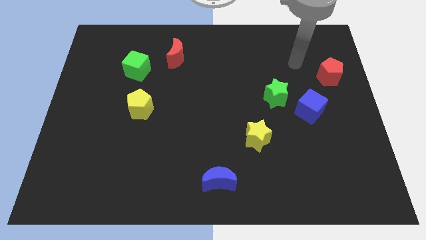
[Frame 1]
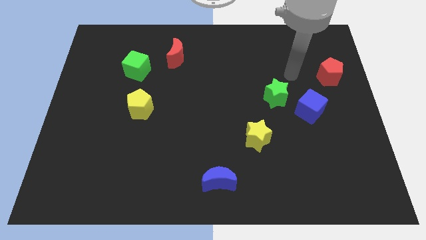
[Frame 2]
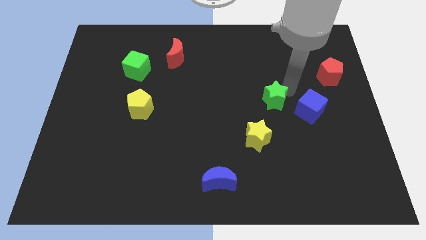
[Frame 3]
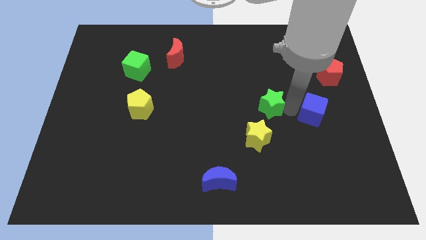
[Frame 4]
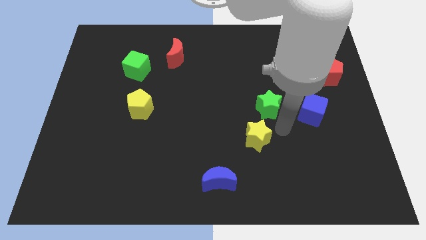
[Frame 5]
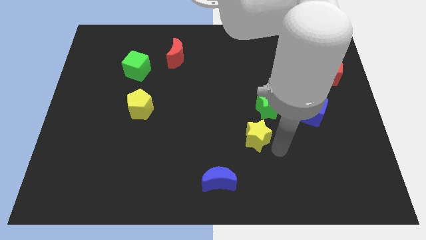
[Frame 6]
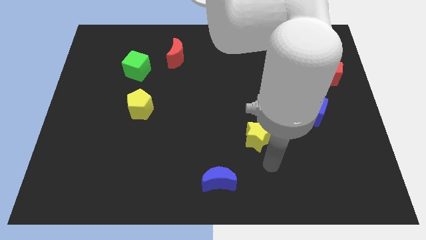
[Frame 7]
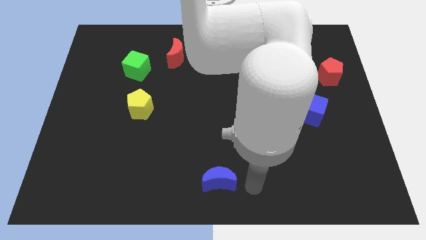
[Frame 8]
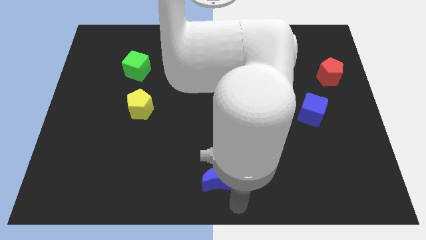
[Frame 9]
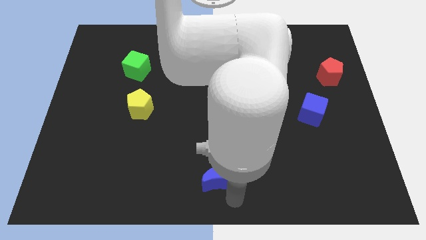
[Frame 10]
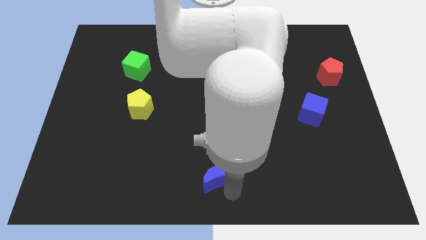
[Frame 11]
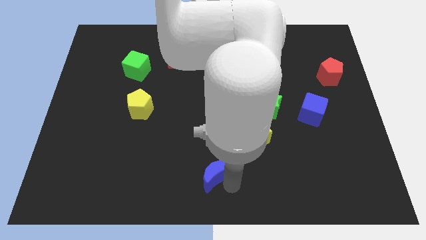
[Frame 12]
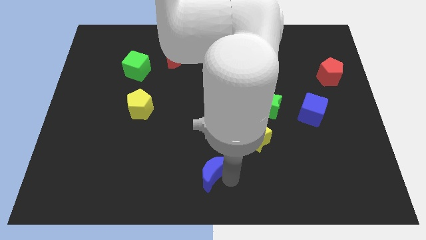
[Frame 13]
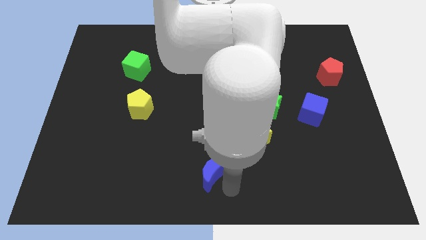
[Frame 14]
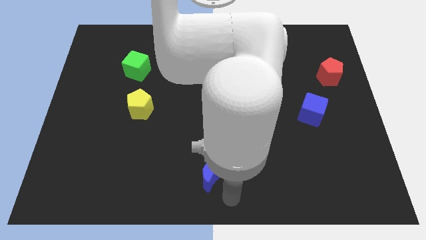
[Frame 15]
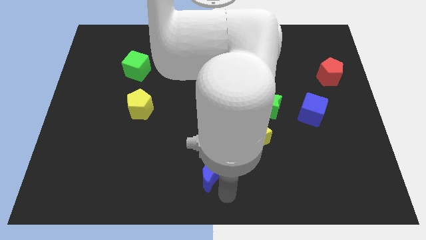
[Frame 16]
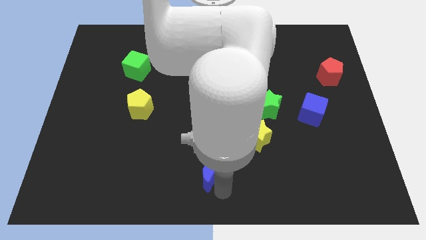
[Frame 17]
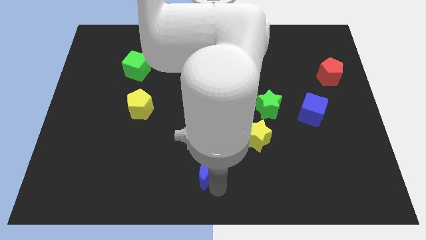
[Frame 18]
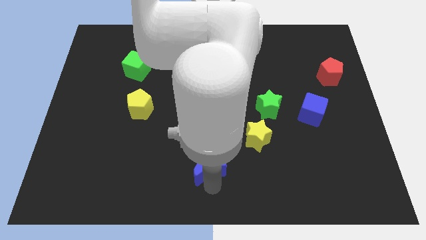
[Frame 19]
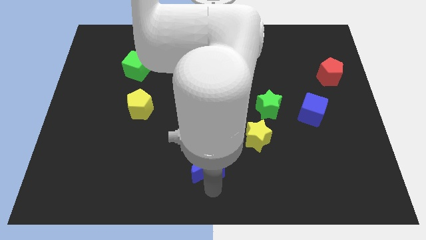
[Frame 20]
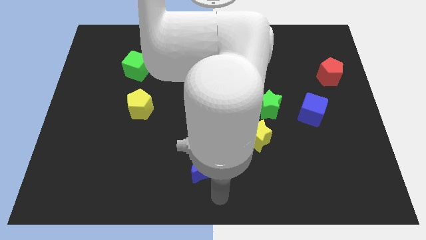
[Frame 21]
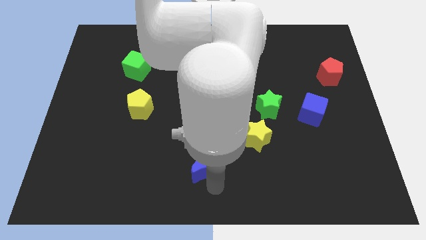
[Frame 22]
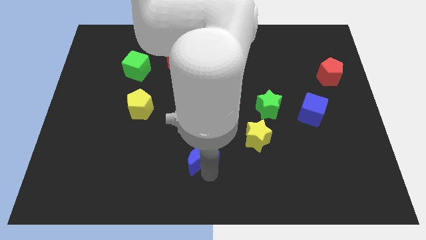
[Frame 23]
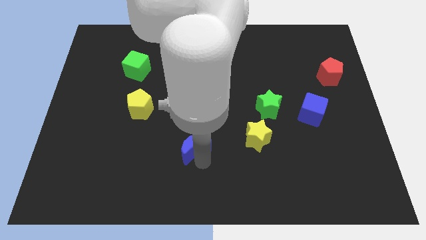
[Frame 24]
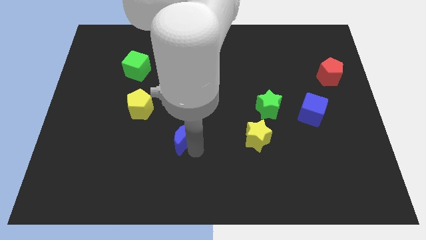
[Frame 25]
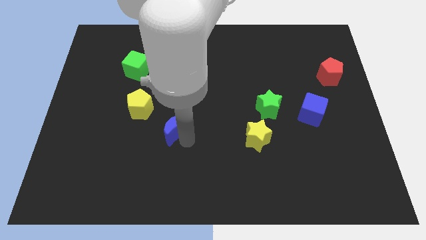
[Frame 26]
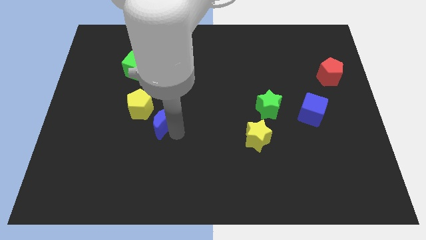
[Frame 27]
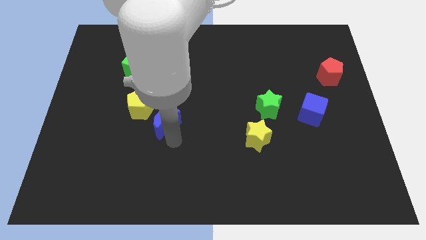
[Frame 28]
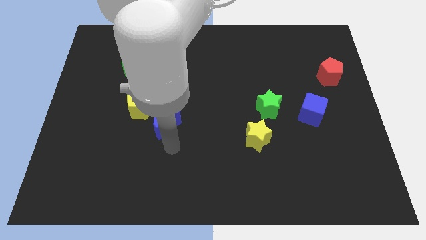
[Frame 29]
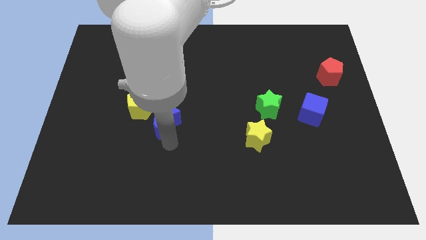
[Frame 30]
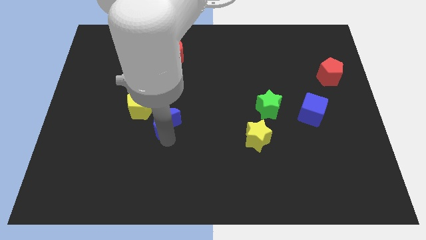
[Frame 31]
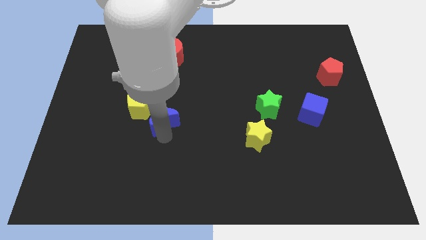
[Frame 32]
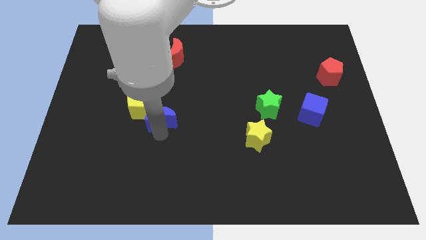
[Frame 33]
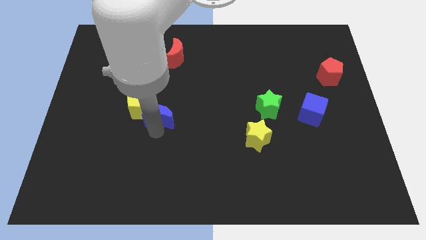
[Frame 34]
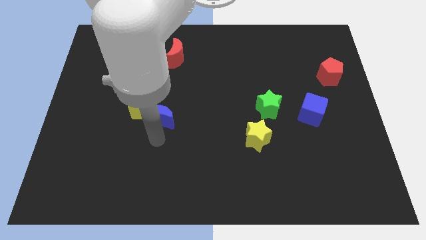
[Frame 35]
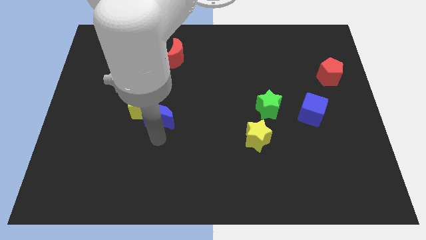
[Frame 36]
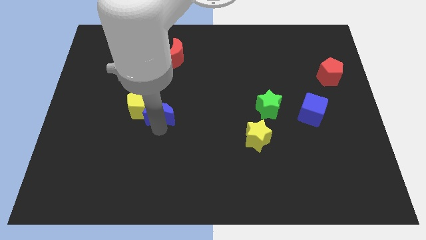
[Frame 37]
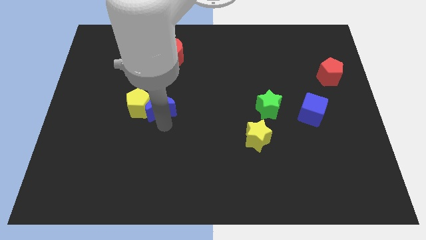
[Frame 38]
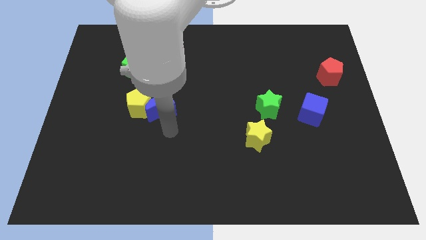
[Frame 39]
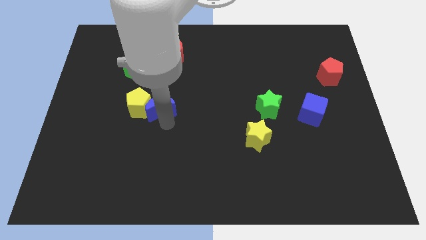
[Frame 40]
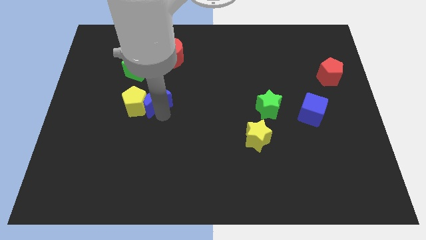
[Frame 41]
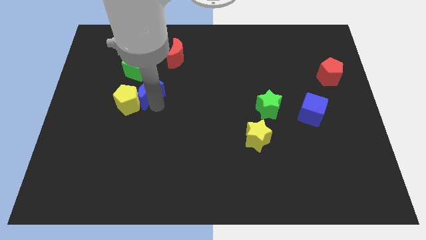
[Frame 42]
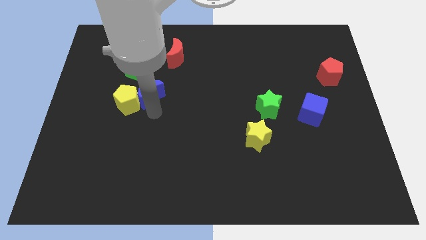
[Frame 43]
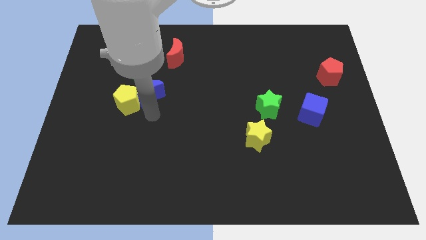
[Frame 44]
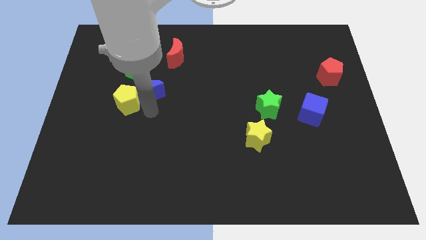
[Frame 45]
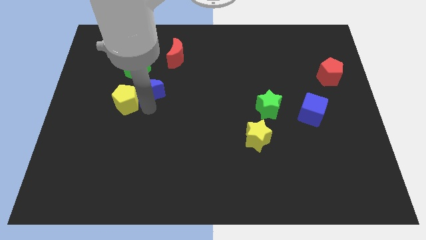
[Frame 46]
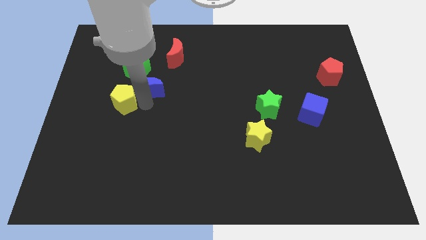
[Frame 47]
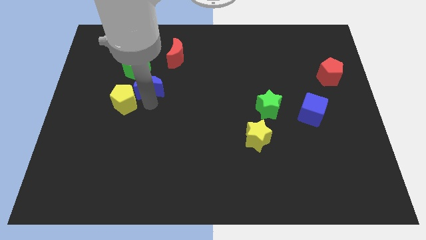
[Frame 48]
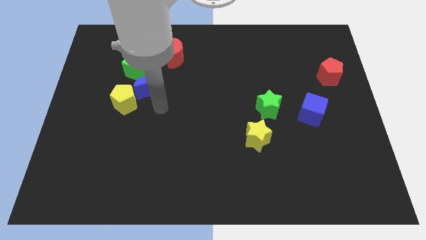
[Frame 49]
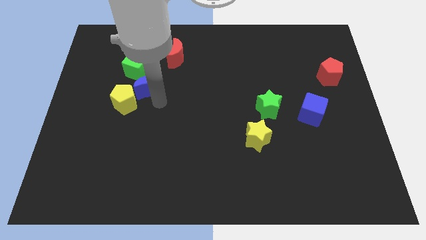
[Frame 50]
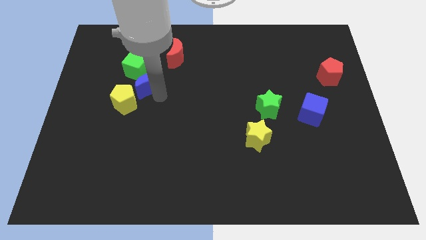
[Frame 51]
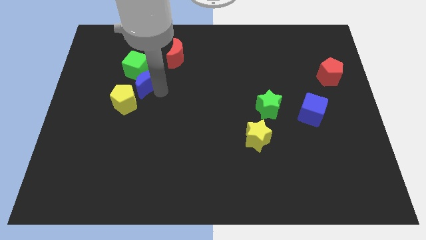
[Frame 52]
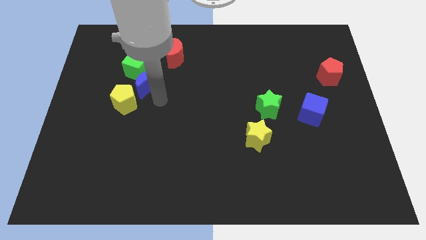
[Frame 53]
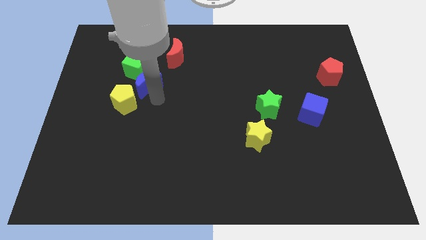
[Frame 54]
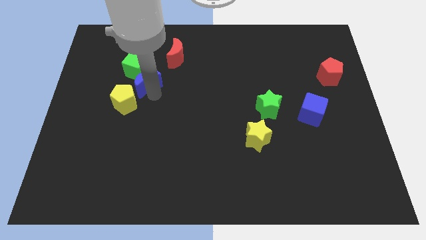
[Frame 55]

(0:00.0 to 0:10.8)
push the blue moon close to the green cube

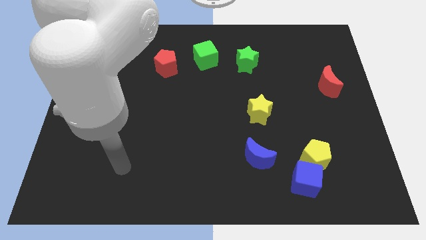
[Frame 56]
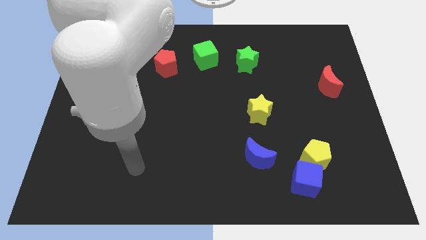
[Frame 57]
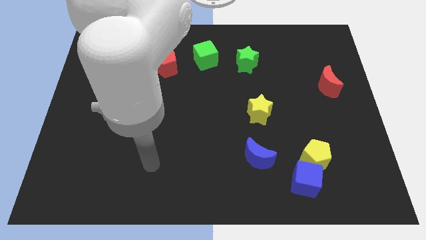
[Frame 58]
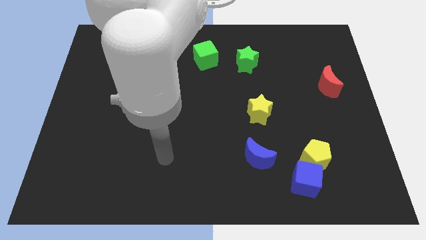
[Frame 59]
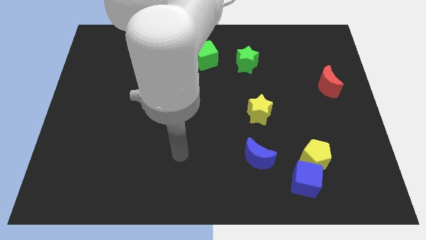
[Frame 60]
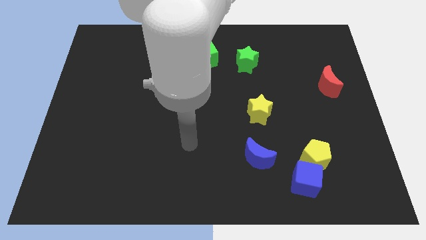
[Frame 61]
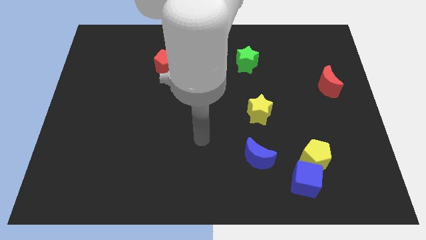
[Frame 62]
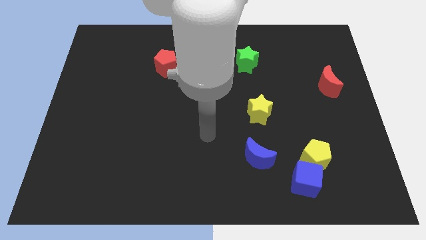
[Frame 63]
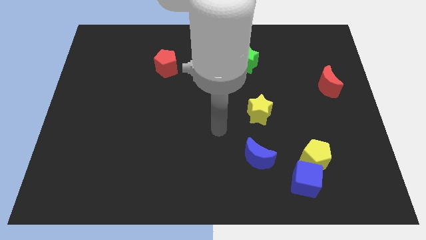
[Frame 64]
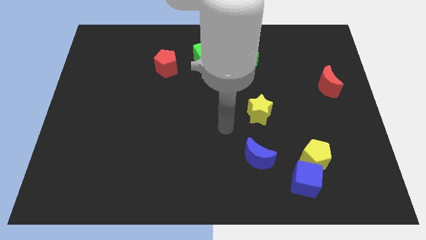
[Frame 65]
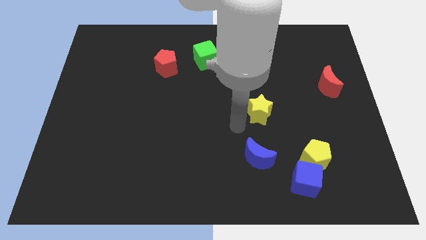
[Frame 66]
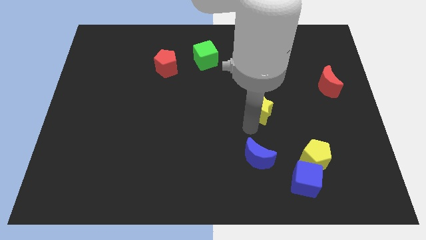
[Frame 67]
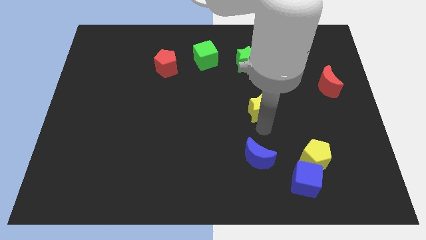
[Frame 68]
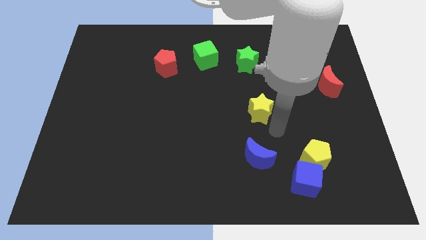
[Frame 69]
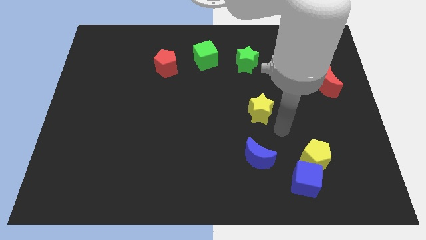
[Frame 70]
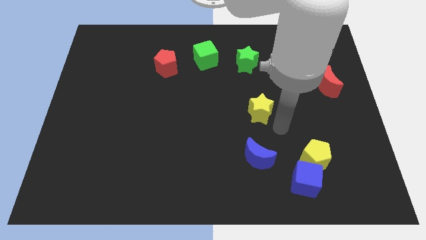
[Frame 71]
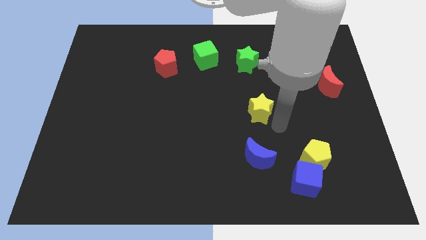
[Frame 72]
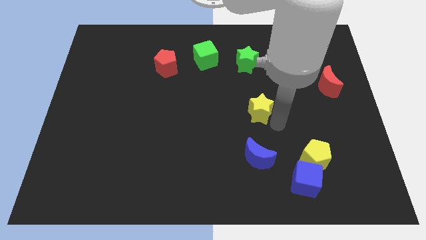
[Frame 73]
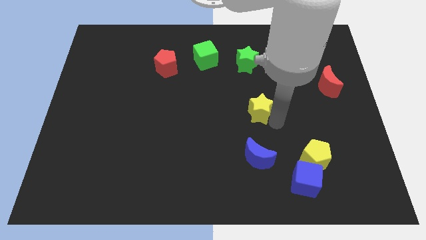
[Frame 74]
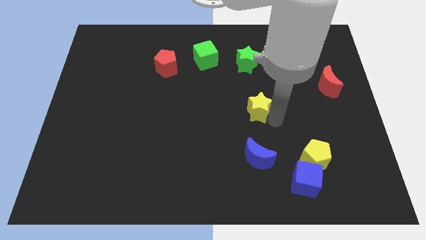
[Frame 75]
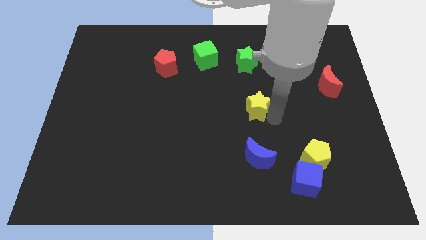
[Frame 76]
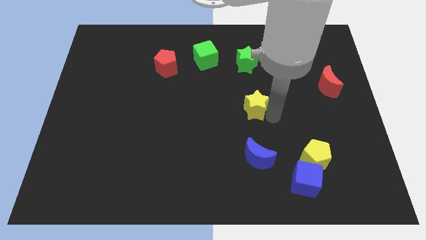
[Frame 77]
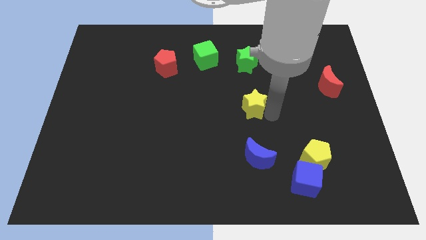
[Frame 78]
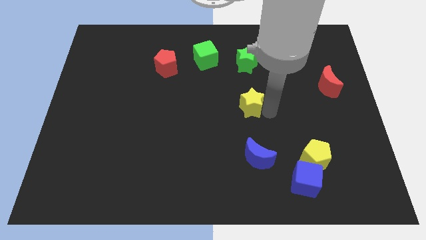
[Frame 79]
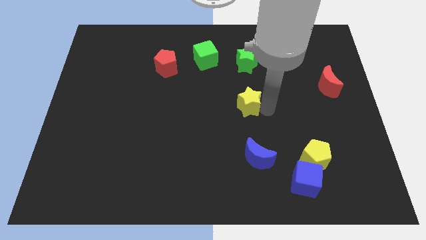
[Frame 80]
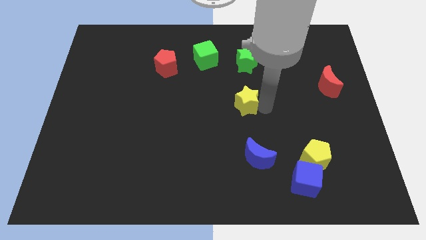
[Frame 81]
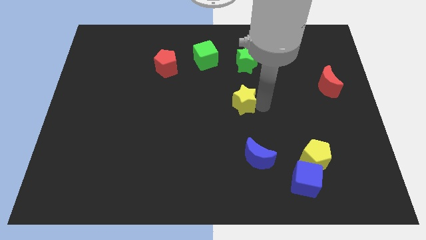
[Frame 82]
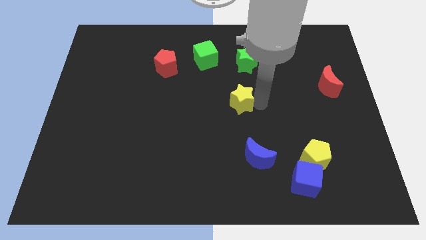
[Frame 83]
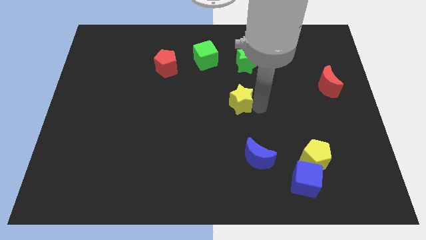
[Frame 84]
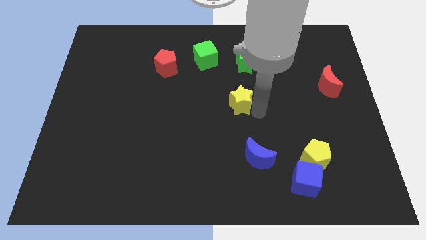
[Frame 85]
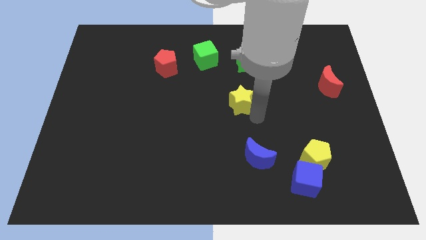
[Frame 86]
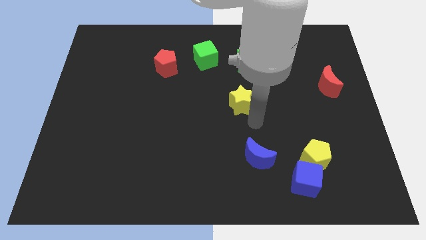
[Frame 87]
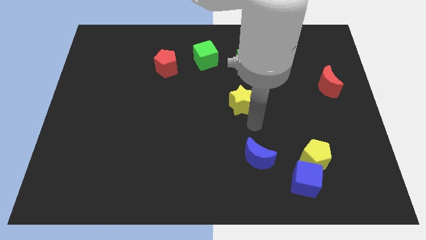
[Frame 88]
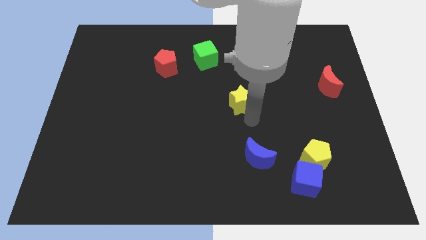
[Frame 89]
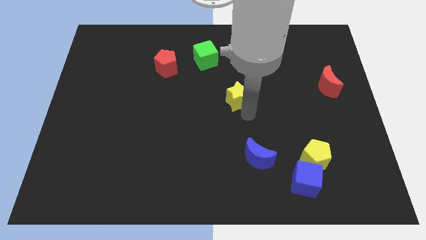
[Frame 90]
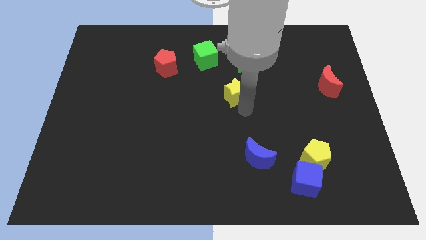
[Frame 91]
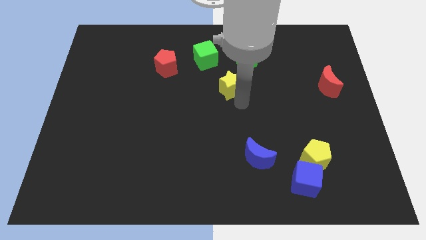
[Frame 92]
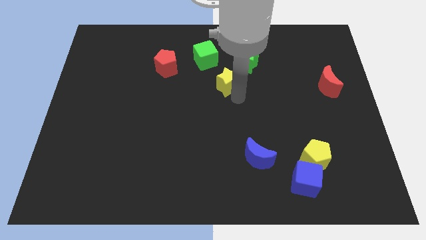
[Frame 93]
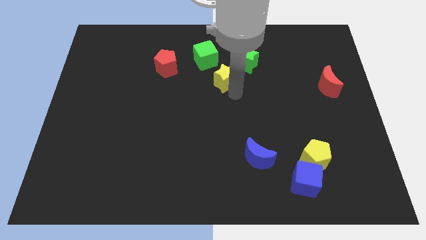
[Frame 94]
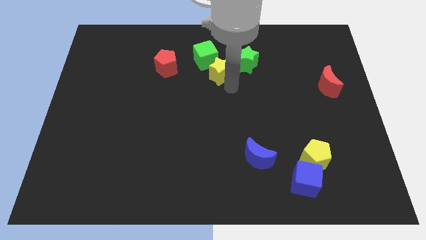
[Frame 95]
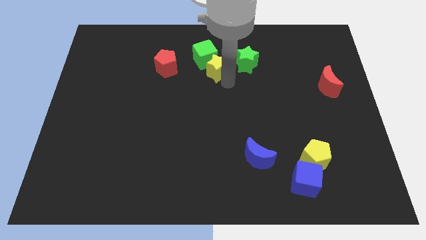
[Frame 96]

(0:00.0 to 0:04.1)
push the yellow star close to the green cube
